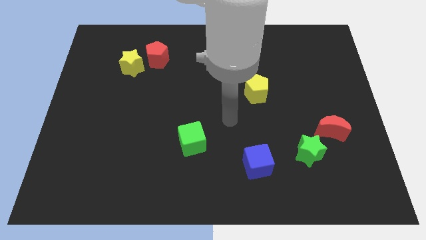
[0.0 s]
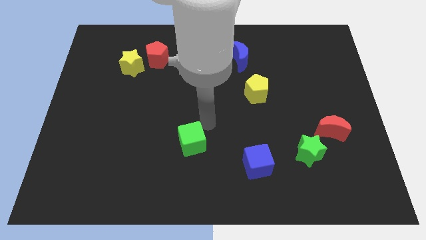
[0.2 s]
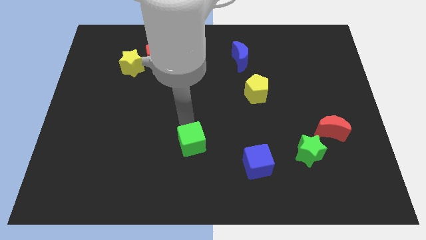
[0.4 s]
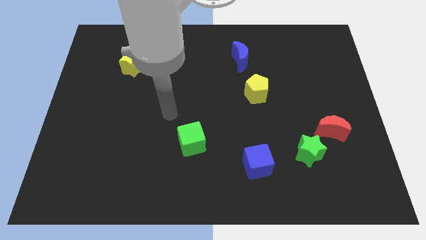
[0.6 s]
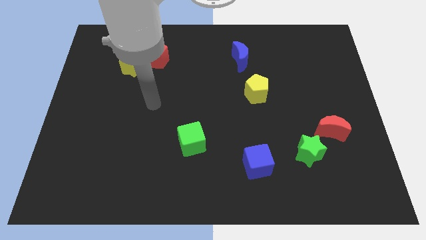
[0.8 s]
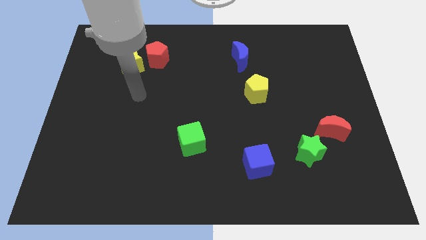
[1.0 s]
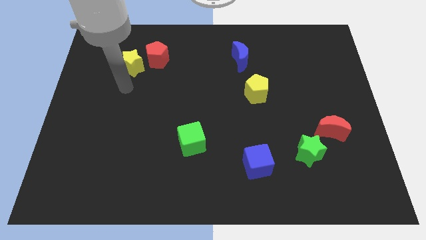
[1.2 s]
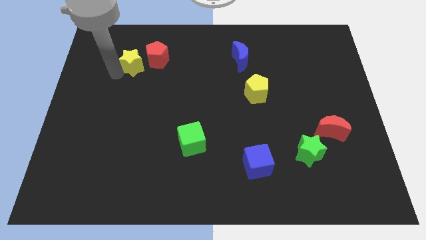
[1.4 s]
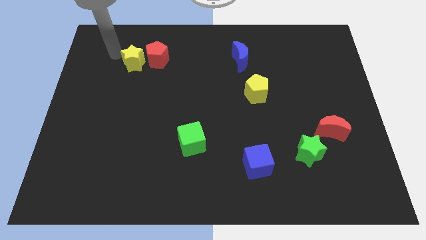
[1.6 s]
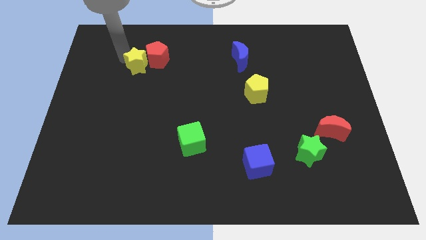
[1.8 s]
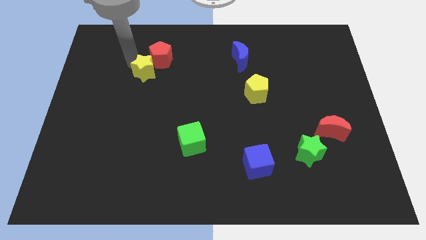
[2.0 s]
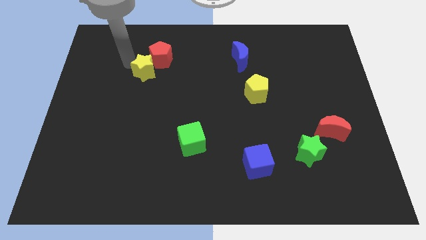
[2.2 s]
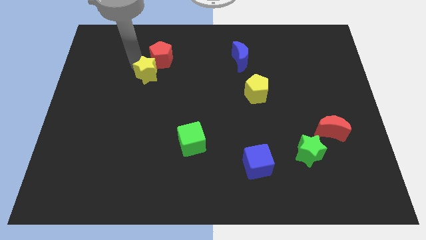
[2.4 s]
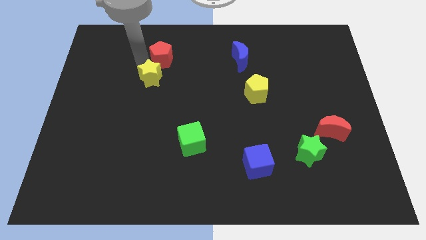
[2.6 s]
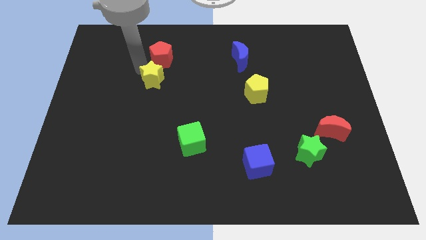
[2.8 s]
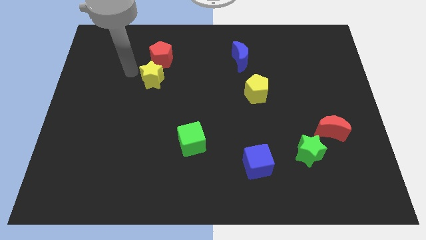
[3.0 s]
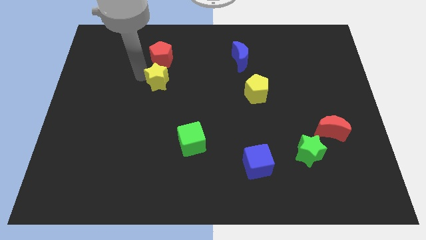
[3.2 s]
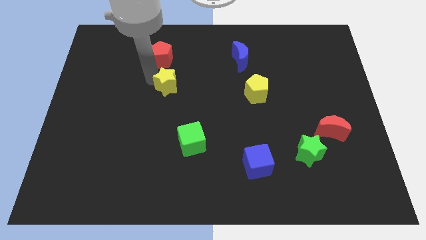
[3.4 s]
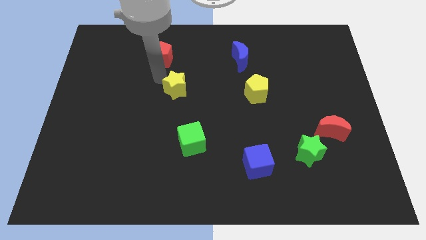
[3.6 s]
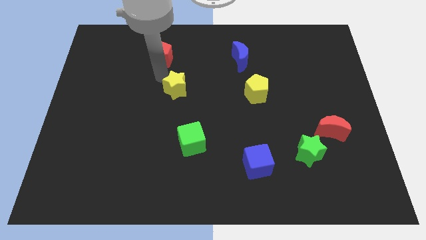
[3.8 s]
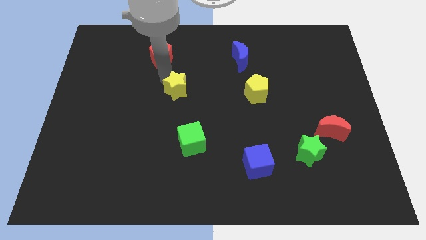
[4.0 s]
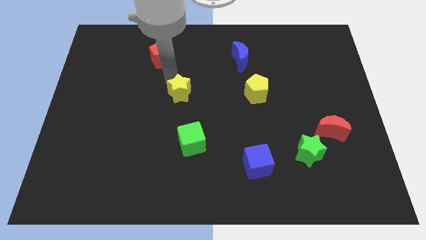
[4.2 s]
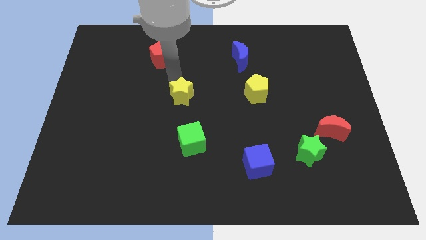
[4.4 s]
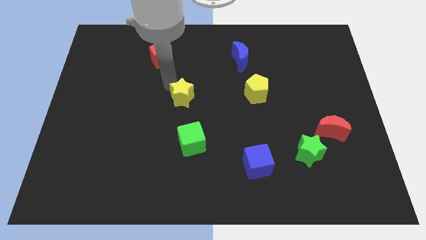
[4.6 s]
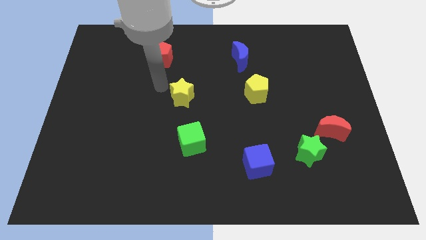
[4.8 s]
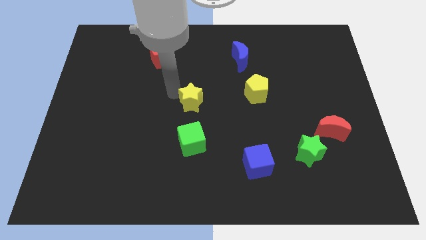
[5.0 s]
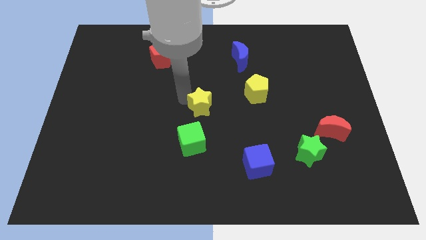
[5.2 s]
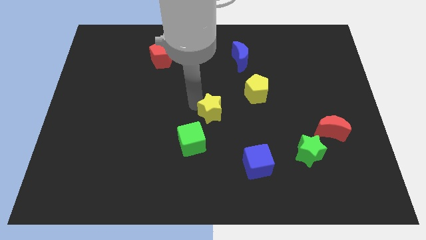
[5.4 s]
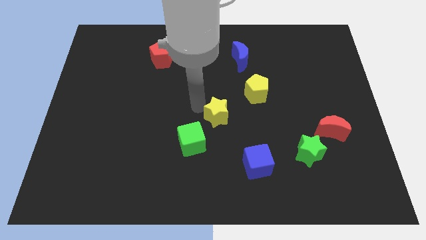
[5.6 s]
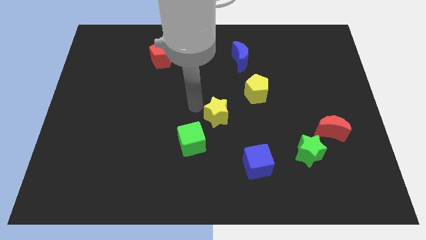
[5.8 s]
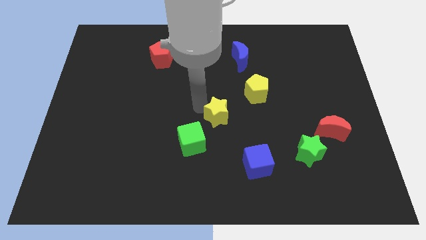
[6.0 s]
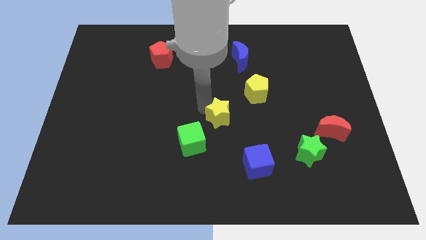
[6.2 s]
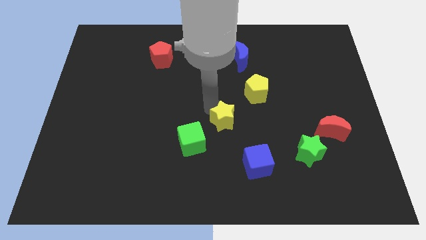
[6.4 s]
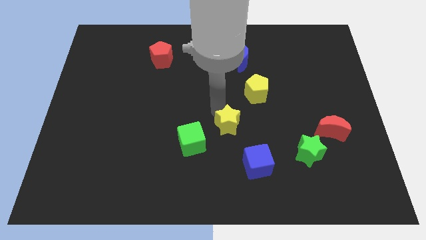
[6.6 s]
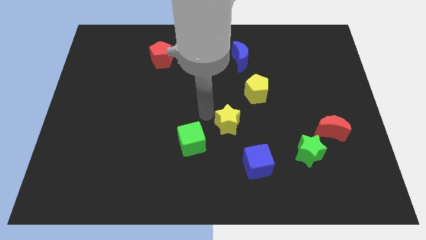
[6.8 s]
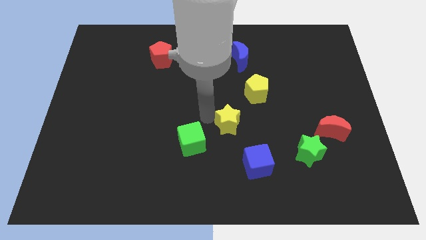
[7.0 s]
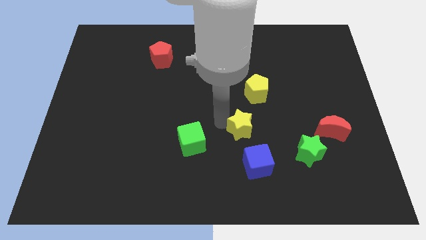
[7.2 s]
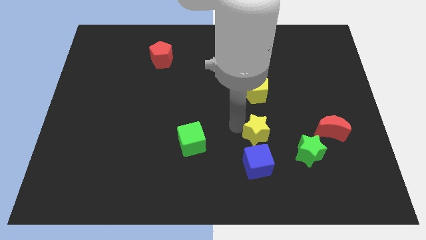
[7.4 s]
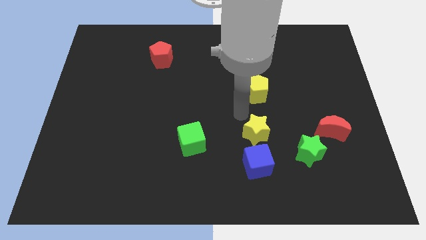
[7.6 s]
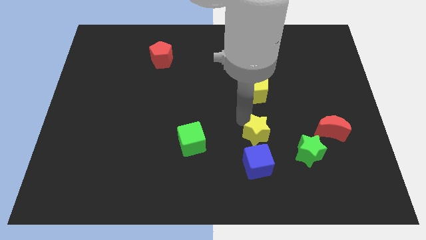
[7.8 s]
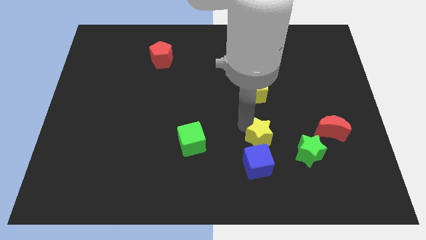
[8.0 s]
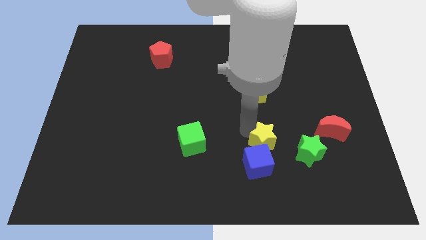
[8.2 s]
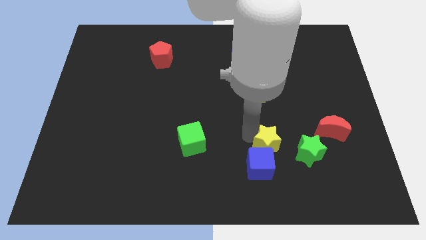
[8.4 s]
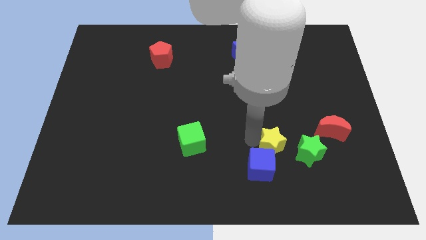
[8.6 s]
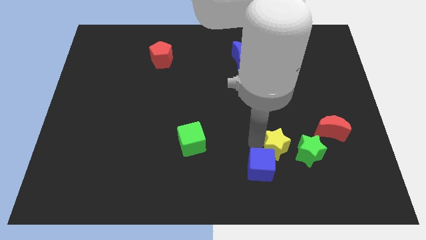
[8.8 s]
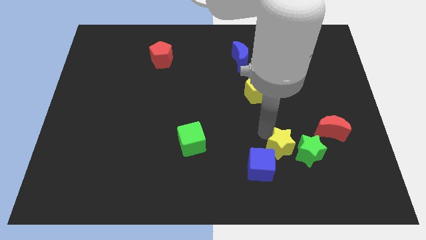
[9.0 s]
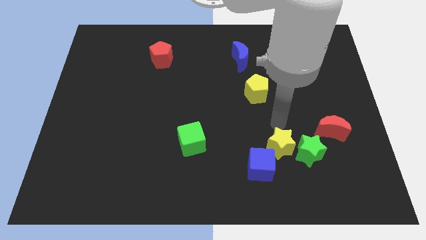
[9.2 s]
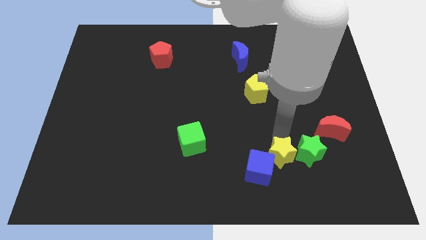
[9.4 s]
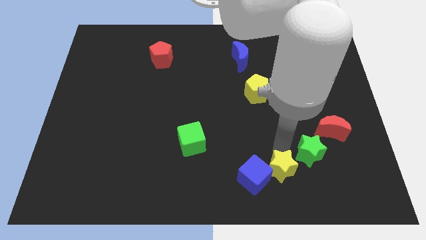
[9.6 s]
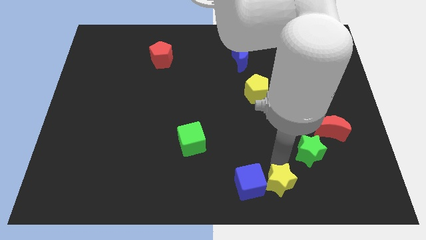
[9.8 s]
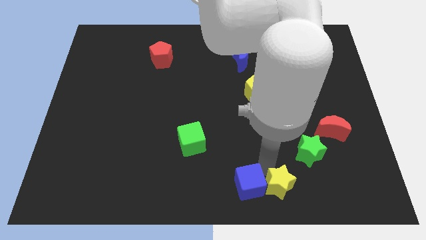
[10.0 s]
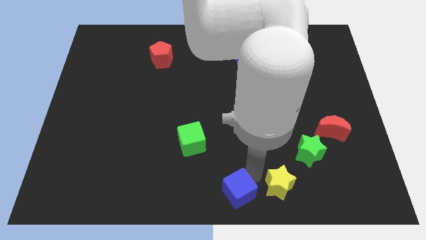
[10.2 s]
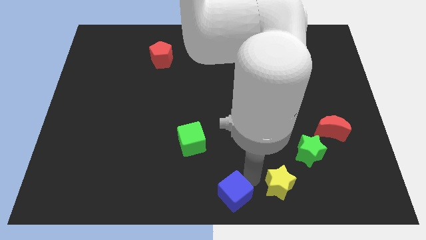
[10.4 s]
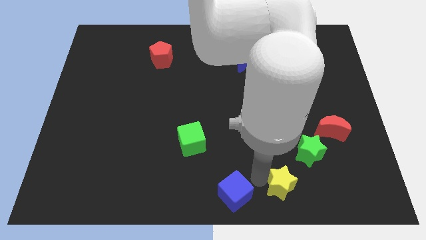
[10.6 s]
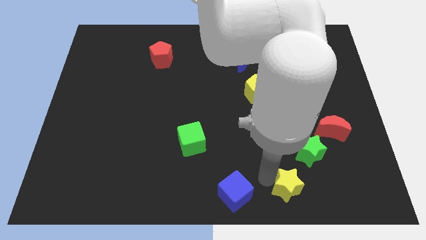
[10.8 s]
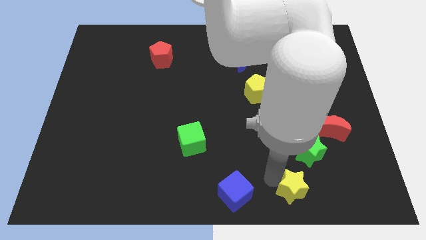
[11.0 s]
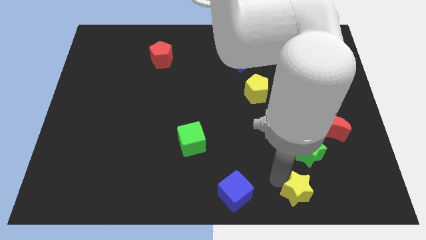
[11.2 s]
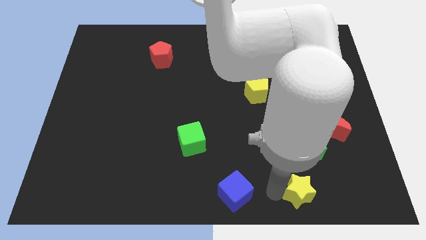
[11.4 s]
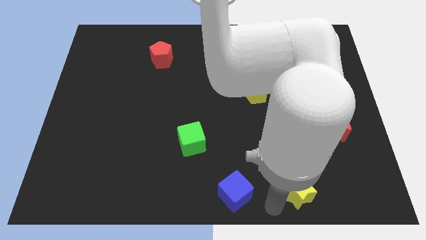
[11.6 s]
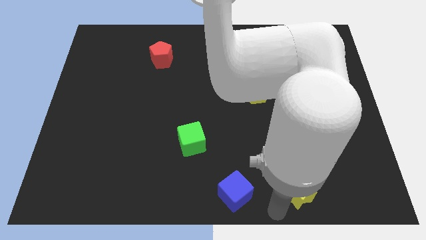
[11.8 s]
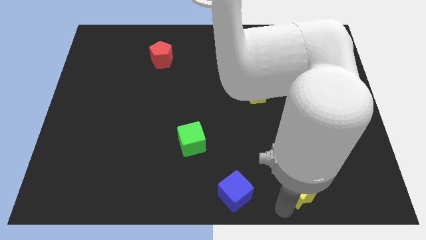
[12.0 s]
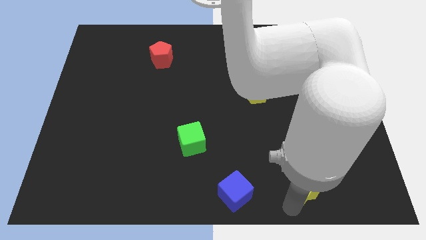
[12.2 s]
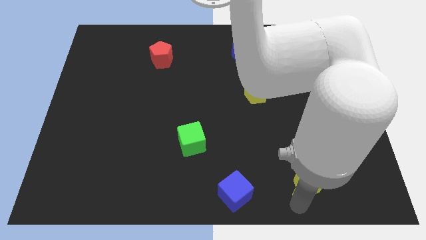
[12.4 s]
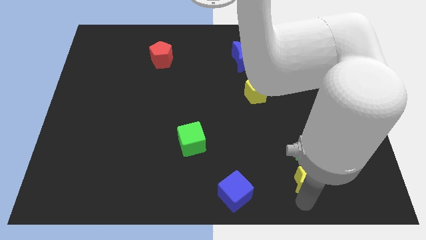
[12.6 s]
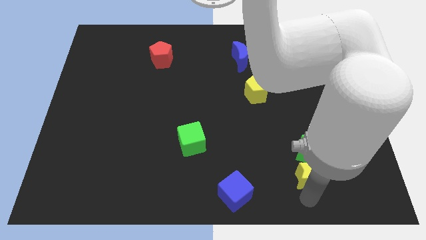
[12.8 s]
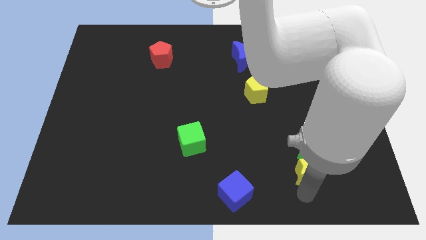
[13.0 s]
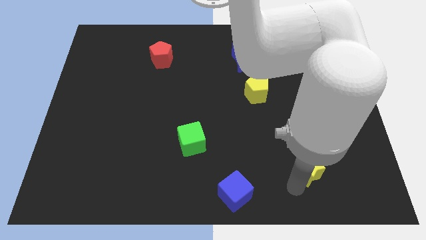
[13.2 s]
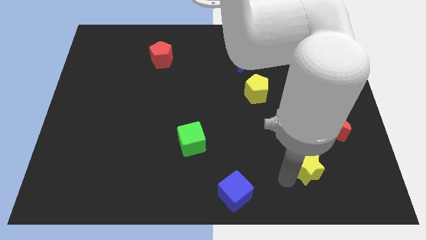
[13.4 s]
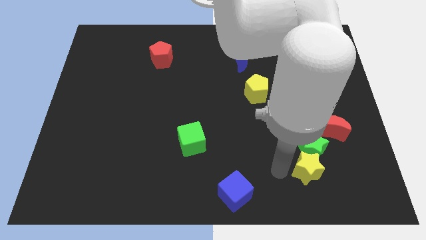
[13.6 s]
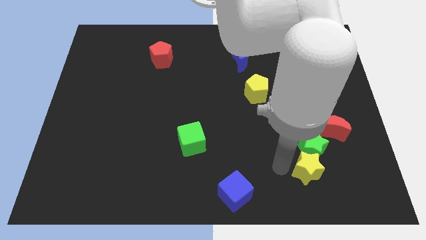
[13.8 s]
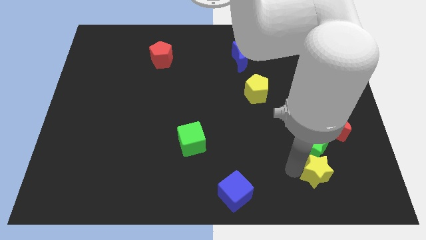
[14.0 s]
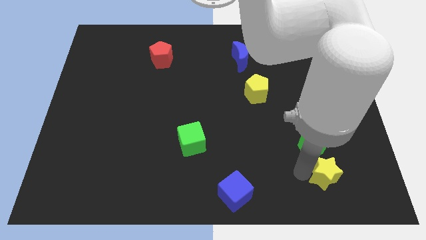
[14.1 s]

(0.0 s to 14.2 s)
push the yellow star to the bottom side of the red moon

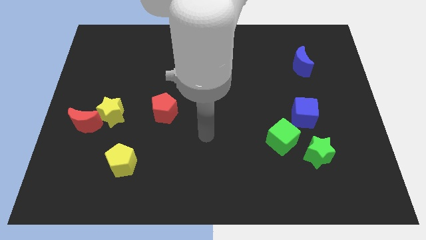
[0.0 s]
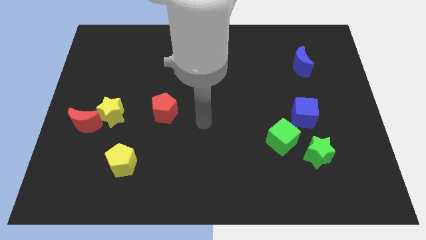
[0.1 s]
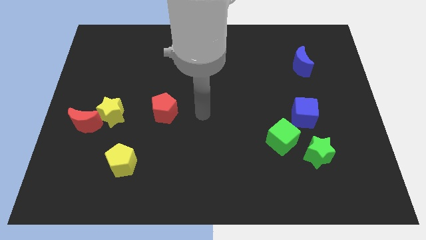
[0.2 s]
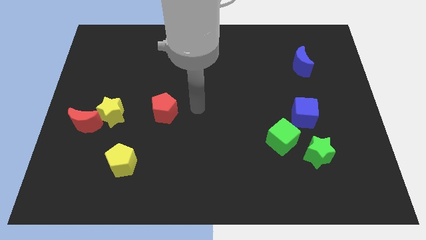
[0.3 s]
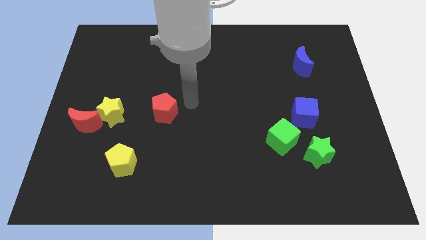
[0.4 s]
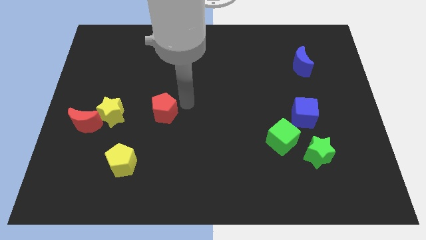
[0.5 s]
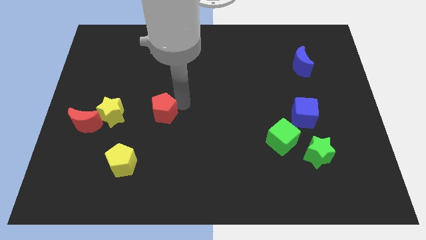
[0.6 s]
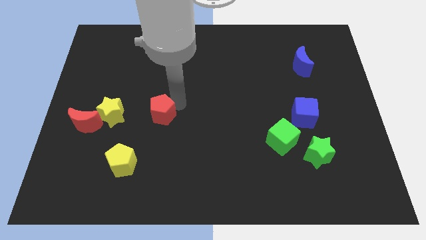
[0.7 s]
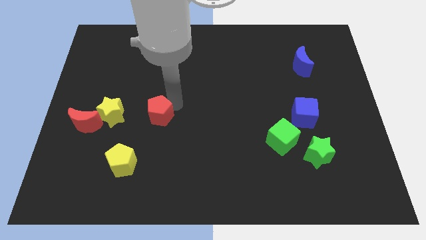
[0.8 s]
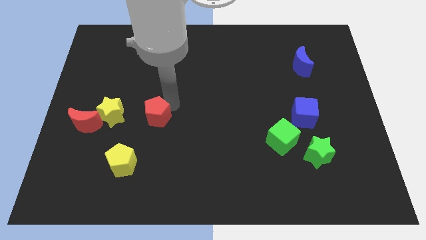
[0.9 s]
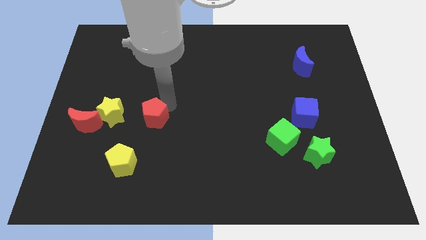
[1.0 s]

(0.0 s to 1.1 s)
put the red pentagon just right of the red moon
